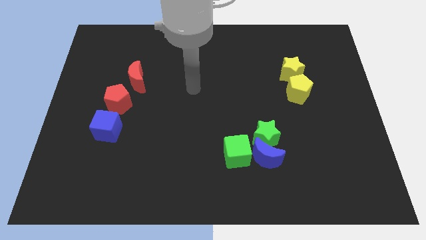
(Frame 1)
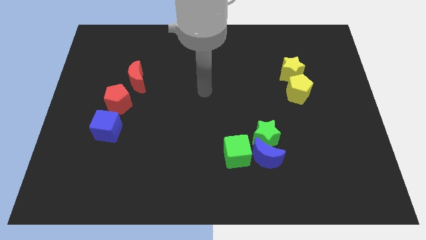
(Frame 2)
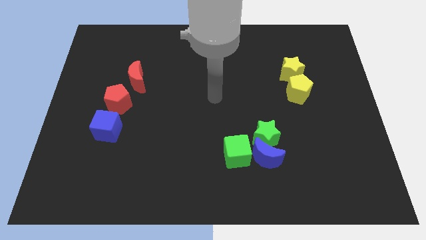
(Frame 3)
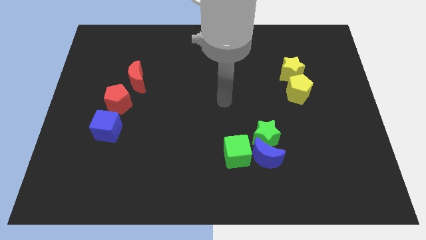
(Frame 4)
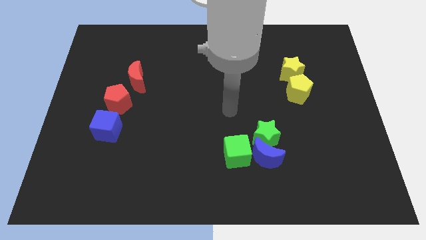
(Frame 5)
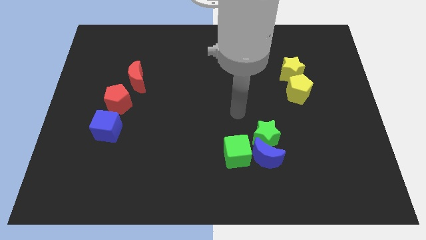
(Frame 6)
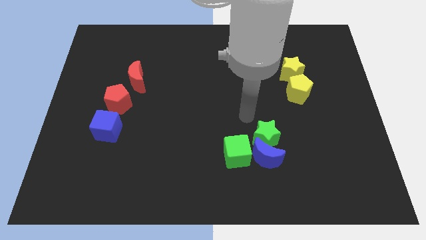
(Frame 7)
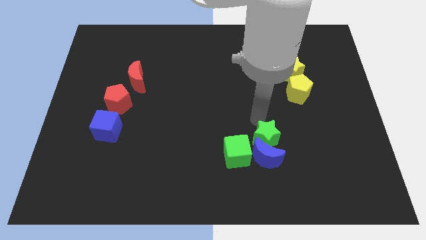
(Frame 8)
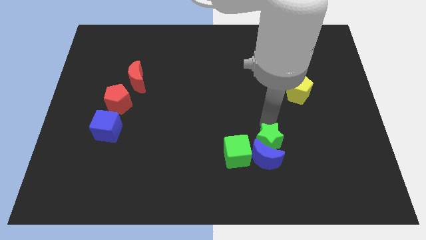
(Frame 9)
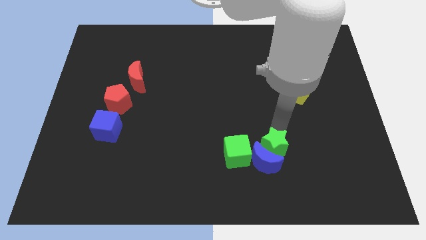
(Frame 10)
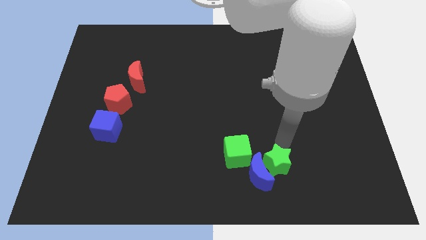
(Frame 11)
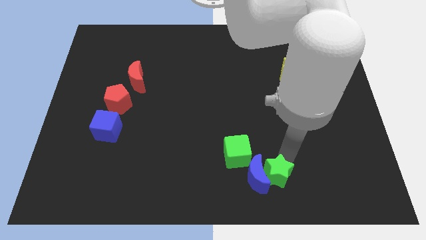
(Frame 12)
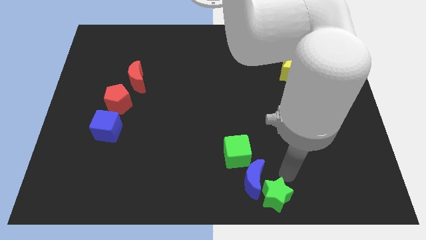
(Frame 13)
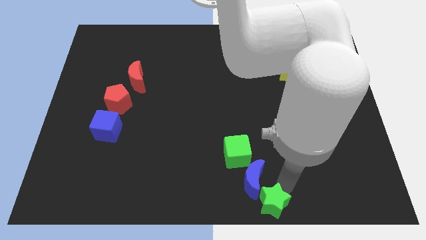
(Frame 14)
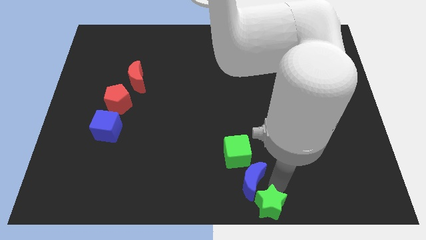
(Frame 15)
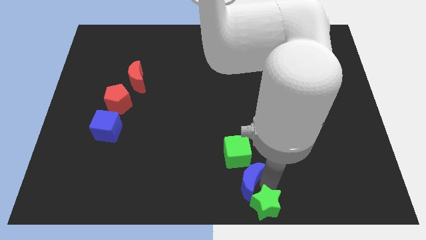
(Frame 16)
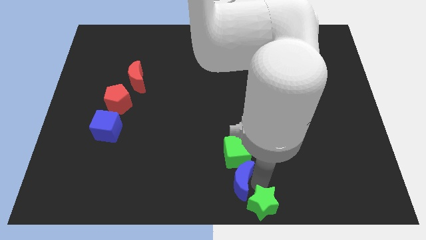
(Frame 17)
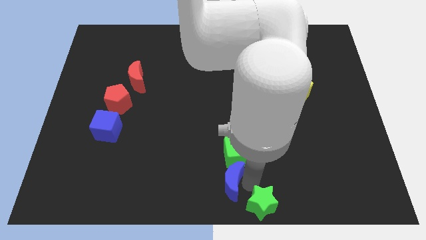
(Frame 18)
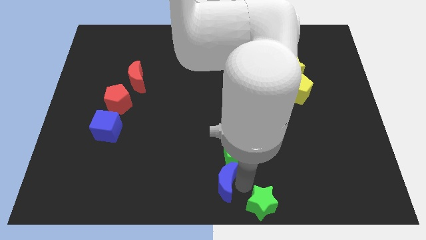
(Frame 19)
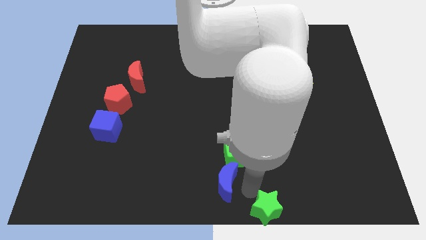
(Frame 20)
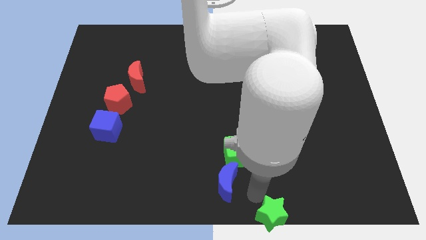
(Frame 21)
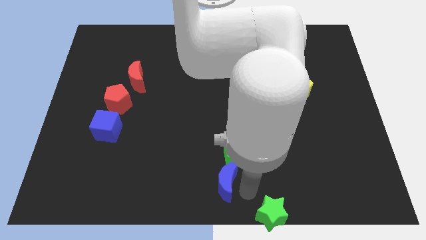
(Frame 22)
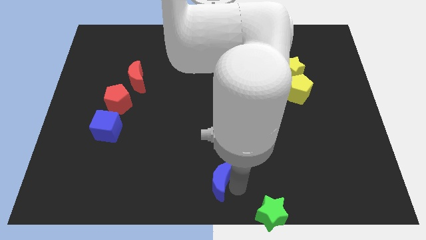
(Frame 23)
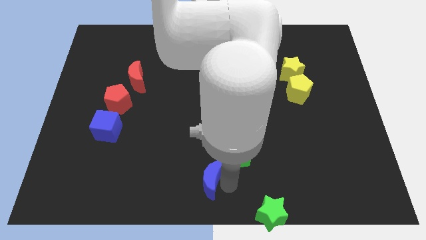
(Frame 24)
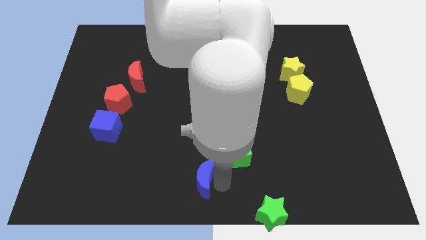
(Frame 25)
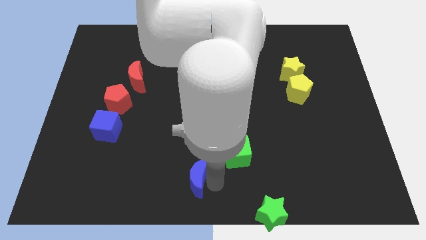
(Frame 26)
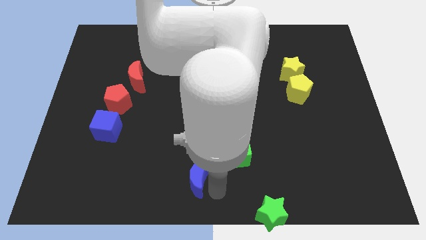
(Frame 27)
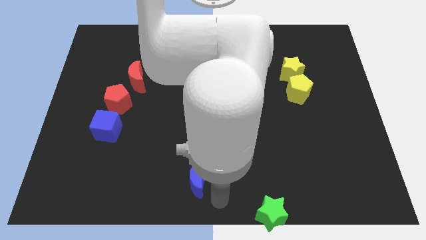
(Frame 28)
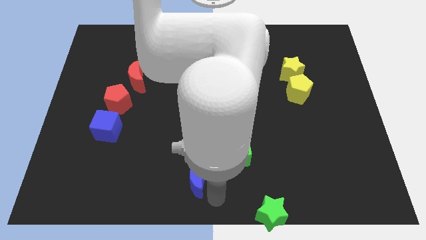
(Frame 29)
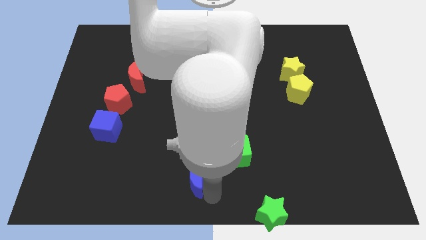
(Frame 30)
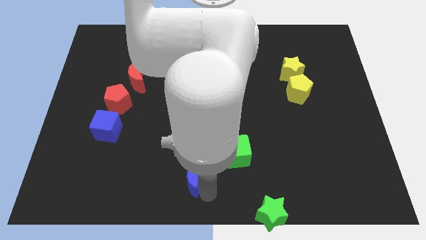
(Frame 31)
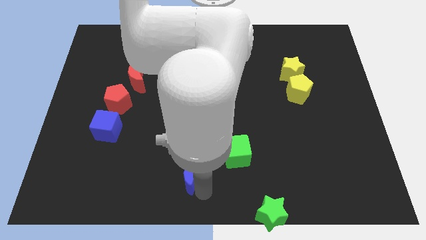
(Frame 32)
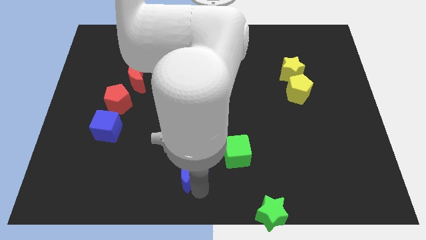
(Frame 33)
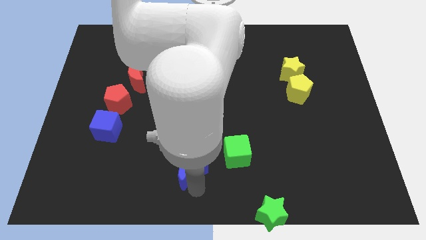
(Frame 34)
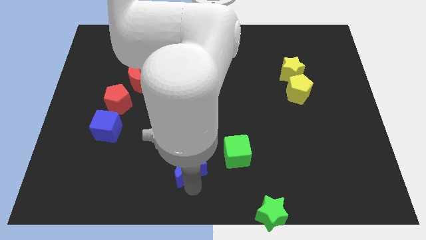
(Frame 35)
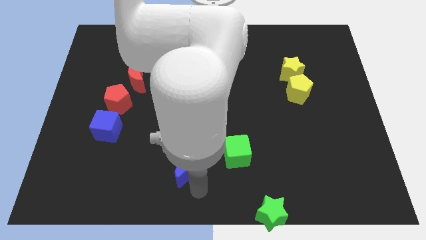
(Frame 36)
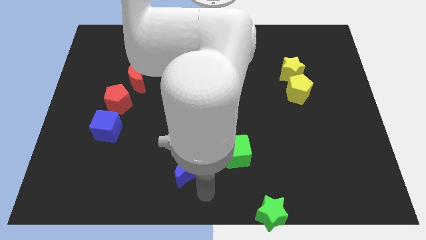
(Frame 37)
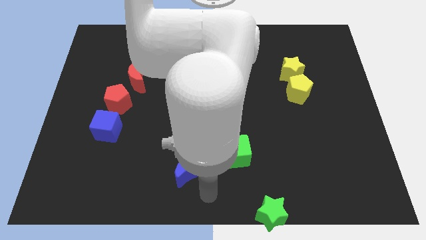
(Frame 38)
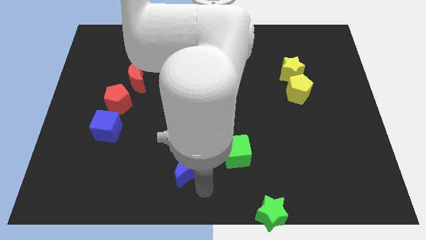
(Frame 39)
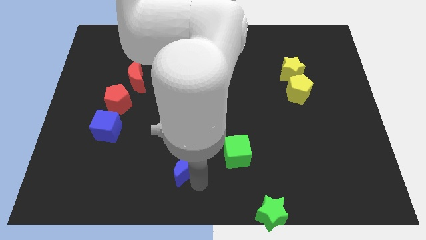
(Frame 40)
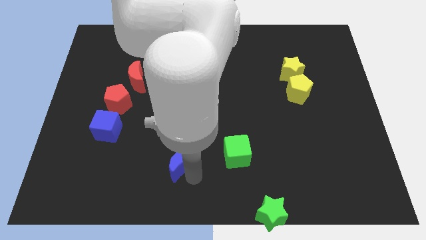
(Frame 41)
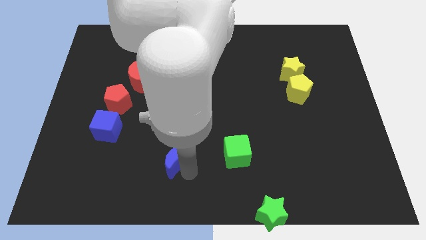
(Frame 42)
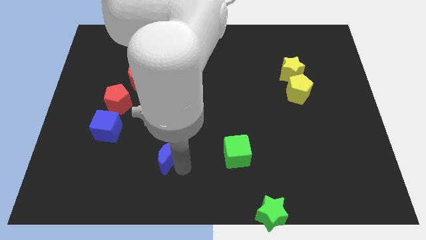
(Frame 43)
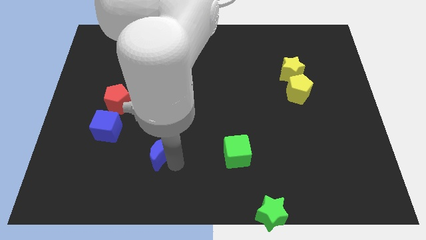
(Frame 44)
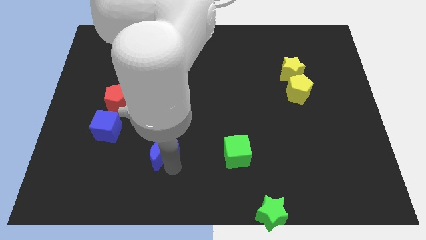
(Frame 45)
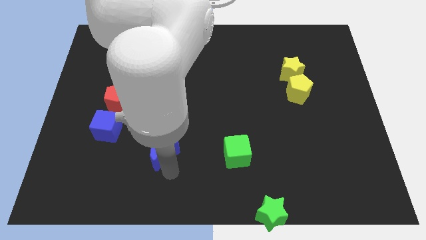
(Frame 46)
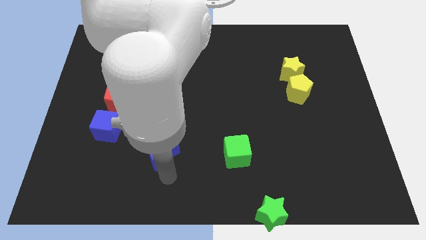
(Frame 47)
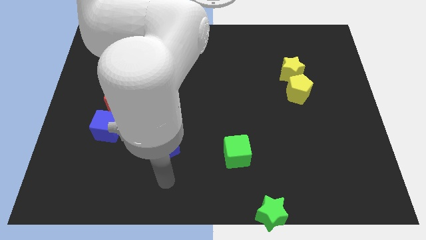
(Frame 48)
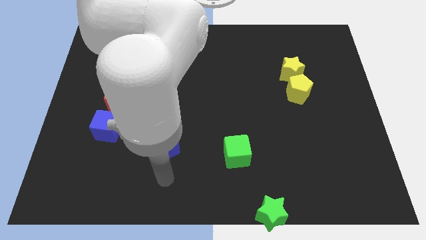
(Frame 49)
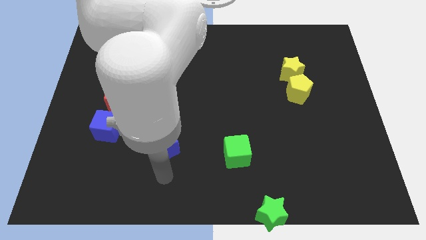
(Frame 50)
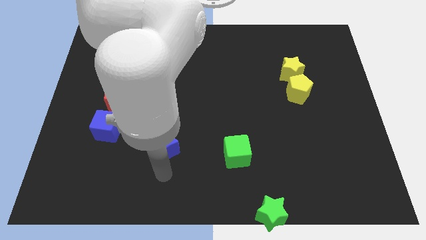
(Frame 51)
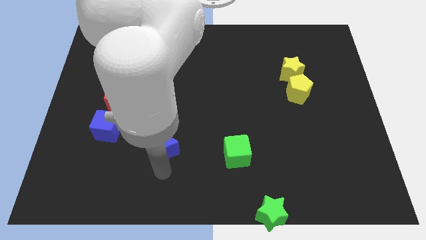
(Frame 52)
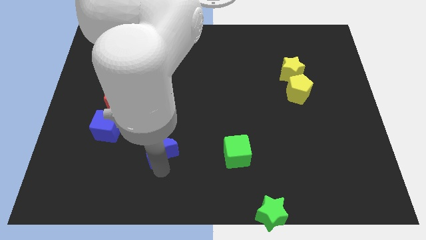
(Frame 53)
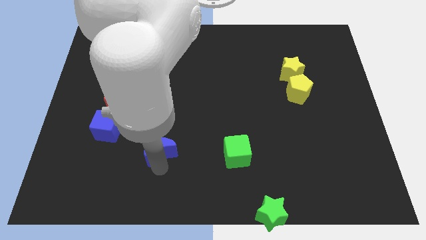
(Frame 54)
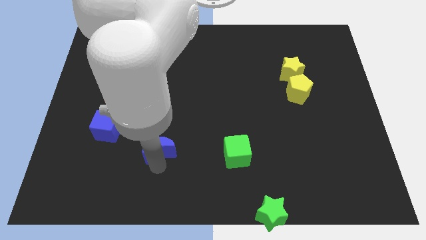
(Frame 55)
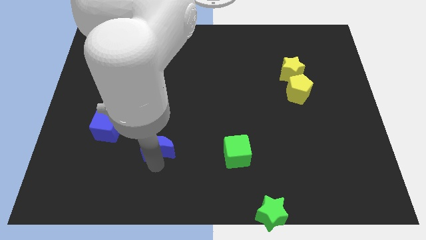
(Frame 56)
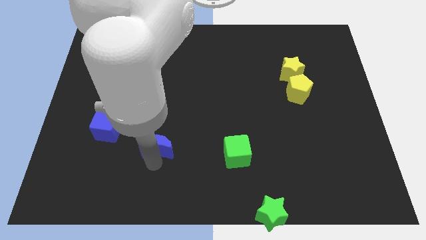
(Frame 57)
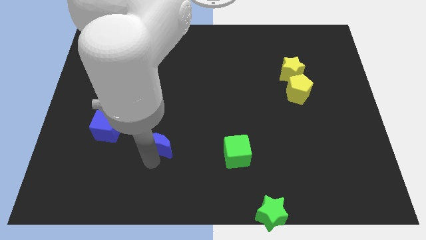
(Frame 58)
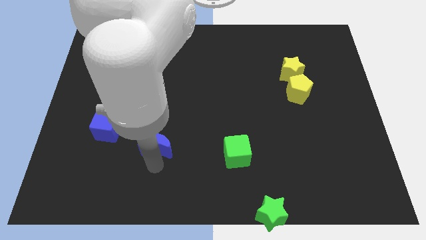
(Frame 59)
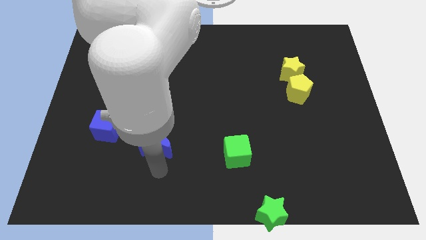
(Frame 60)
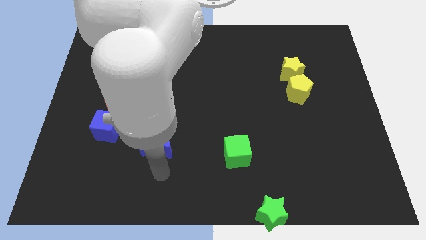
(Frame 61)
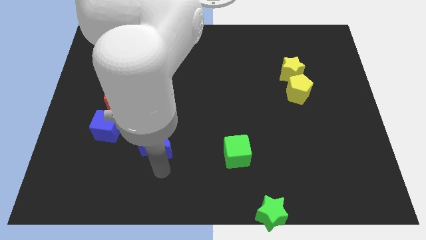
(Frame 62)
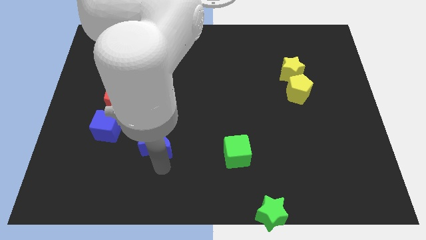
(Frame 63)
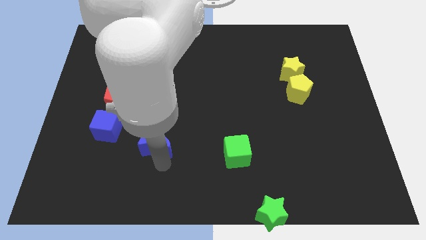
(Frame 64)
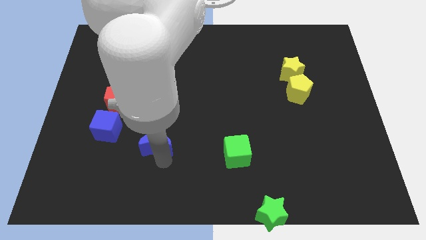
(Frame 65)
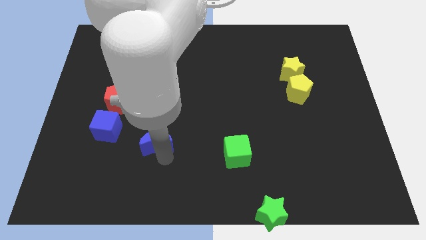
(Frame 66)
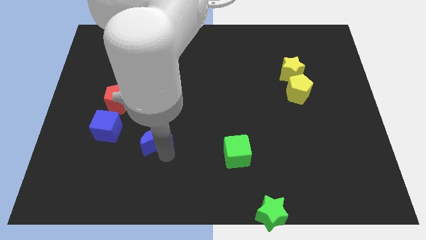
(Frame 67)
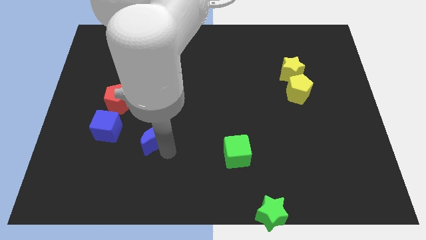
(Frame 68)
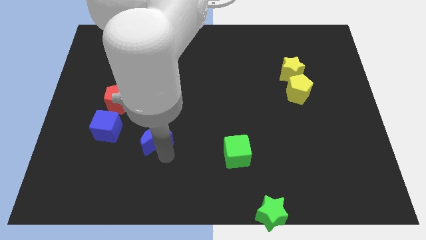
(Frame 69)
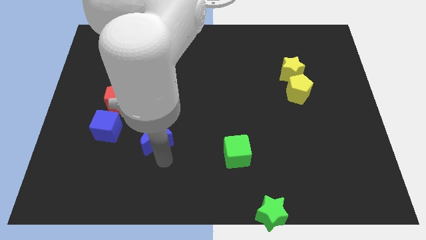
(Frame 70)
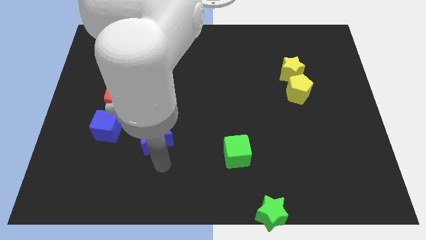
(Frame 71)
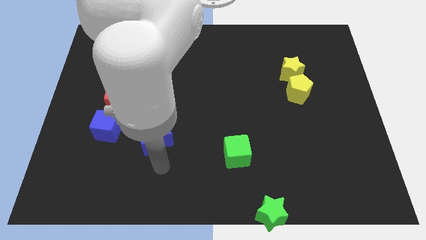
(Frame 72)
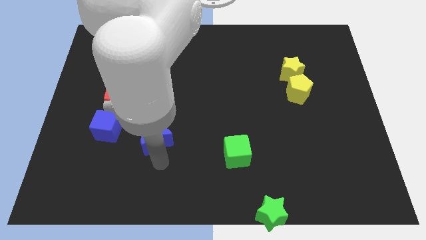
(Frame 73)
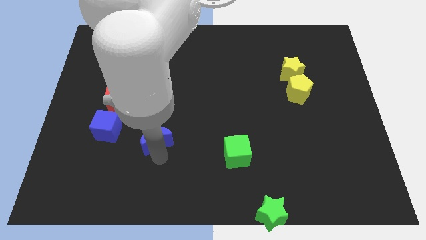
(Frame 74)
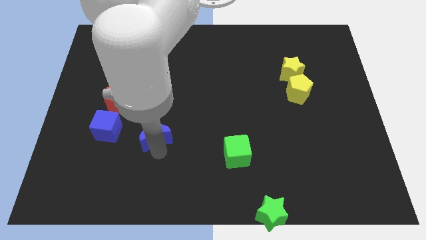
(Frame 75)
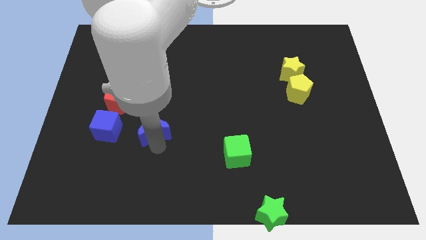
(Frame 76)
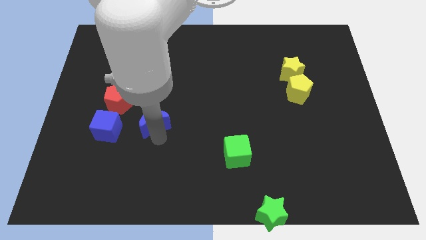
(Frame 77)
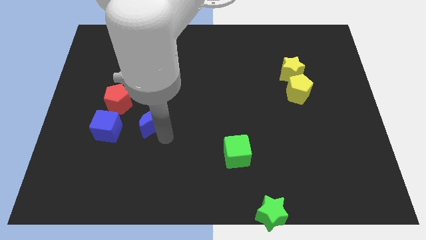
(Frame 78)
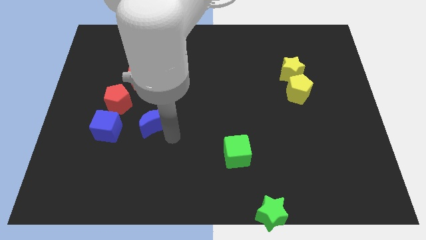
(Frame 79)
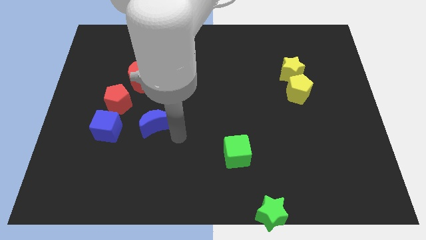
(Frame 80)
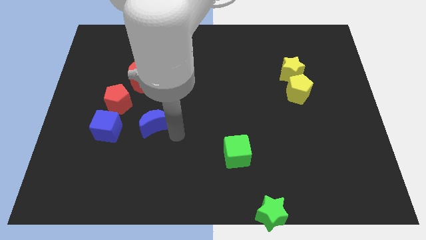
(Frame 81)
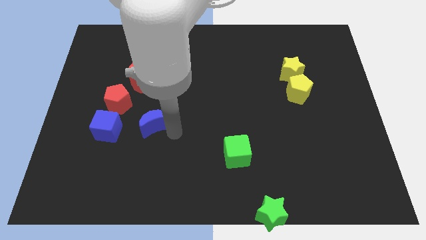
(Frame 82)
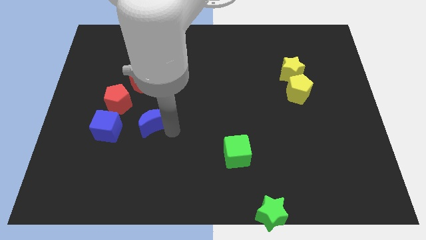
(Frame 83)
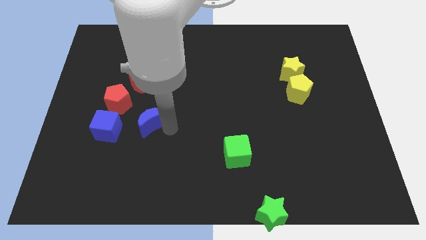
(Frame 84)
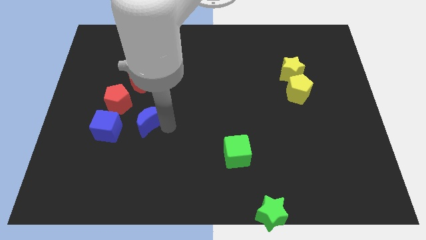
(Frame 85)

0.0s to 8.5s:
move the blue moon to the bottom side of the red moon
